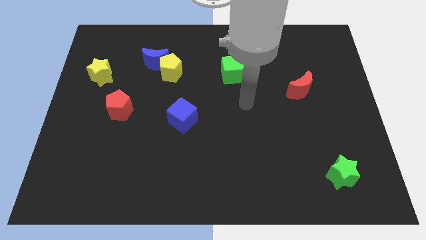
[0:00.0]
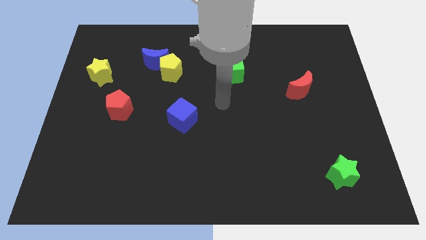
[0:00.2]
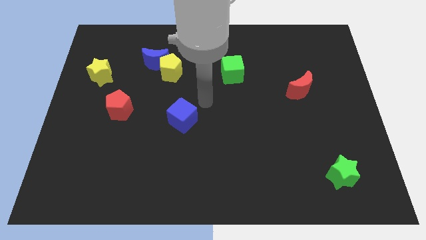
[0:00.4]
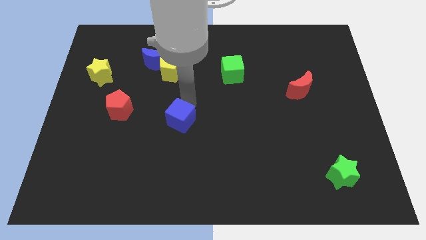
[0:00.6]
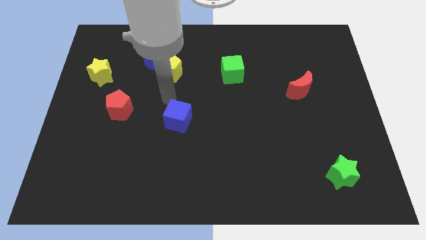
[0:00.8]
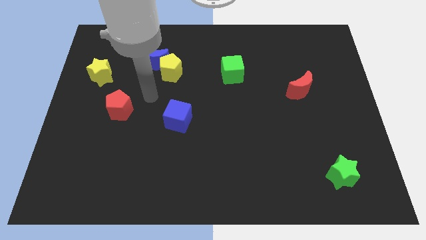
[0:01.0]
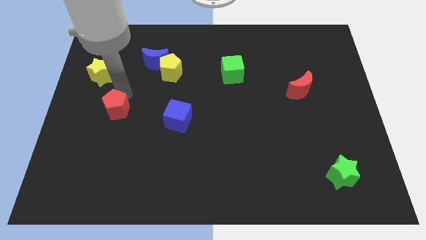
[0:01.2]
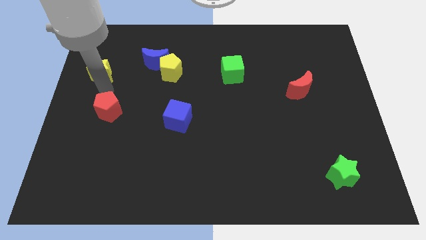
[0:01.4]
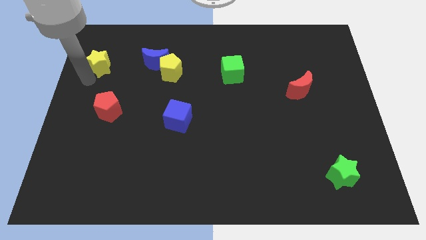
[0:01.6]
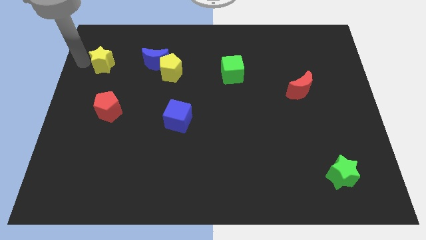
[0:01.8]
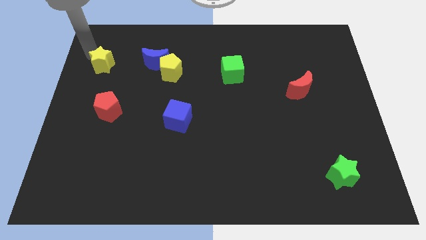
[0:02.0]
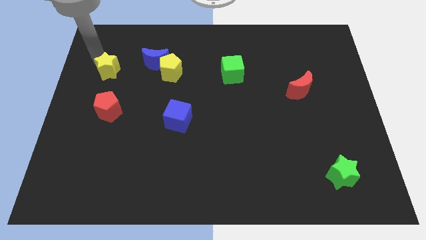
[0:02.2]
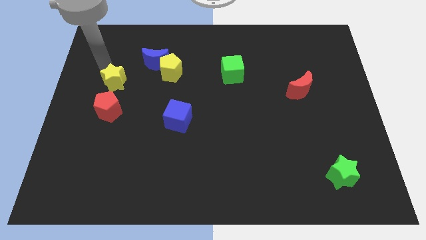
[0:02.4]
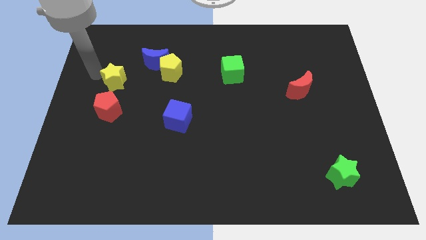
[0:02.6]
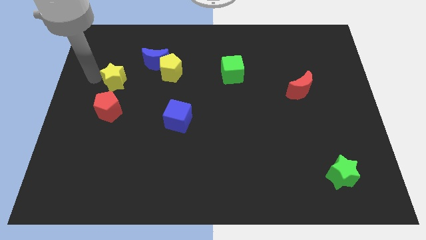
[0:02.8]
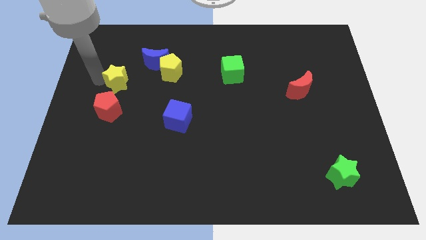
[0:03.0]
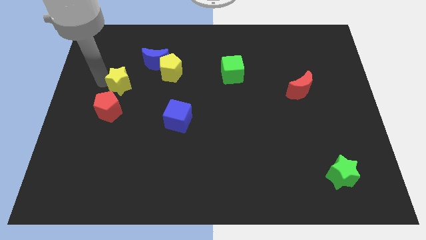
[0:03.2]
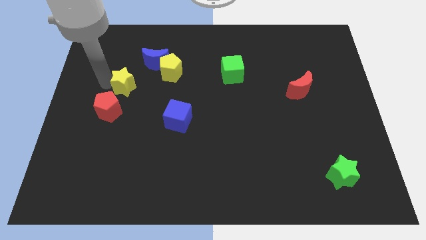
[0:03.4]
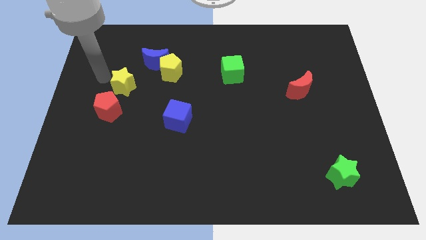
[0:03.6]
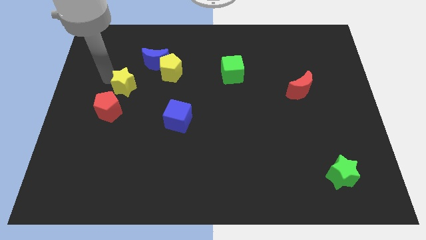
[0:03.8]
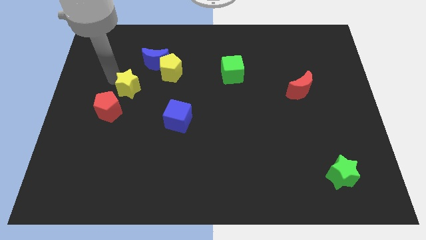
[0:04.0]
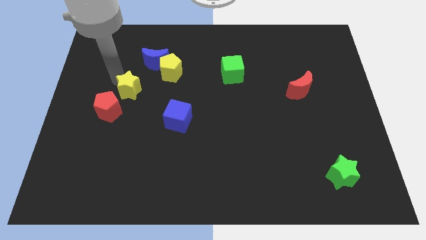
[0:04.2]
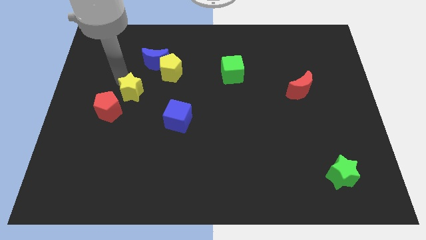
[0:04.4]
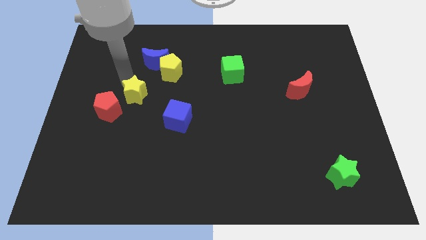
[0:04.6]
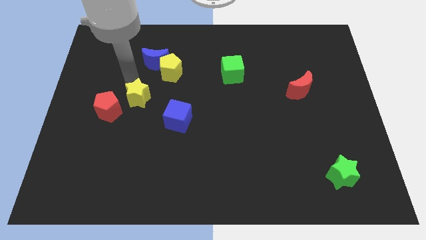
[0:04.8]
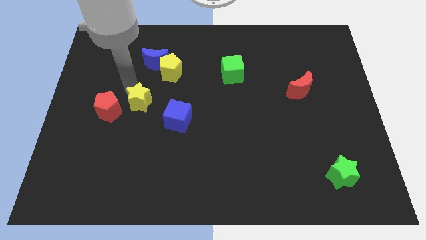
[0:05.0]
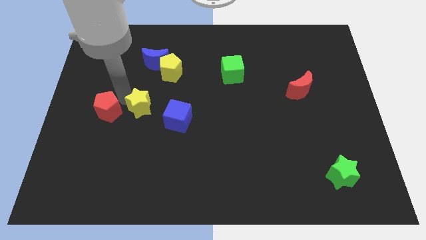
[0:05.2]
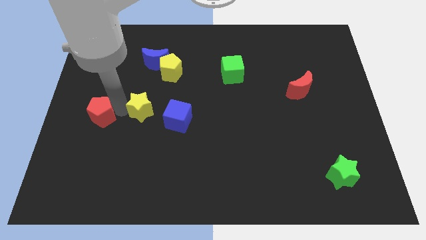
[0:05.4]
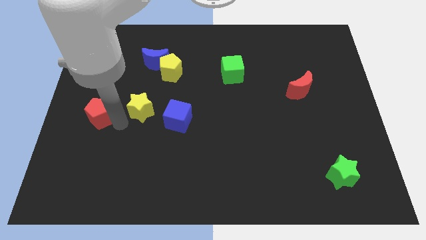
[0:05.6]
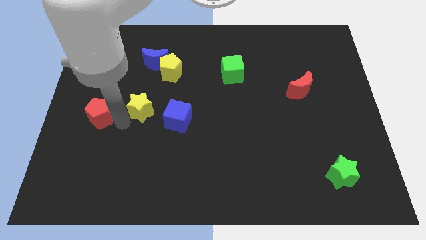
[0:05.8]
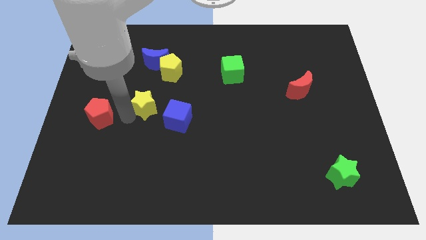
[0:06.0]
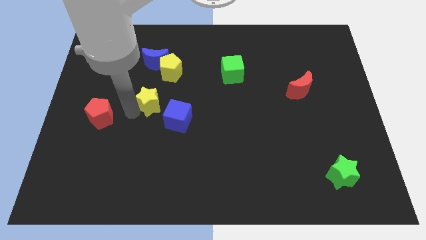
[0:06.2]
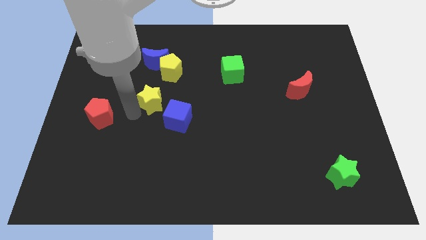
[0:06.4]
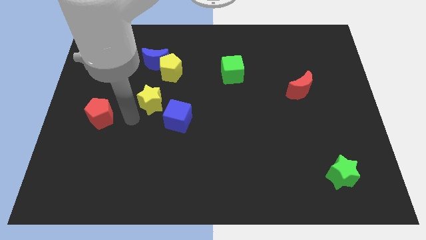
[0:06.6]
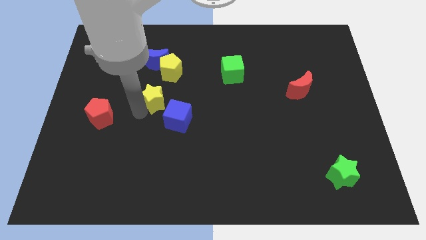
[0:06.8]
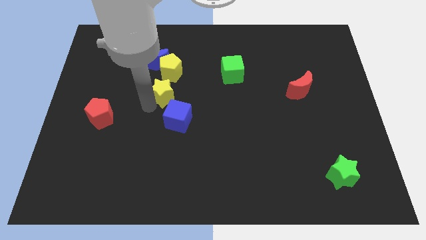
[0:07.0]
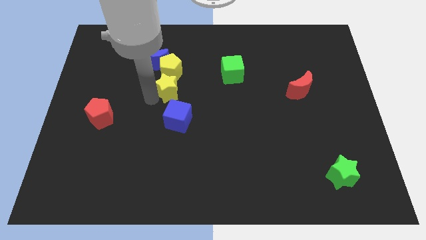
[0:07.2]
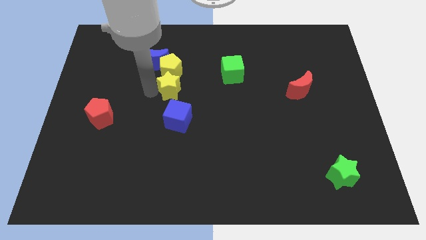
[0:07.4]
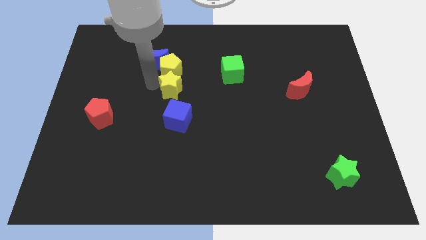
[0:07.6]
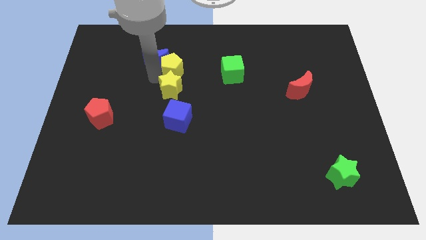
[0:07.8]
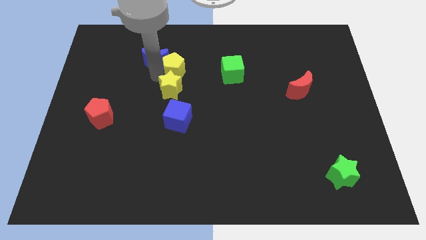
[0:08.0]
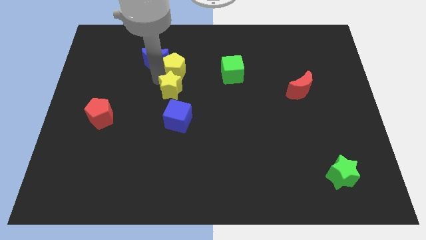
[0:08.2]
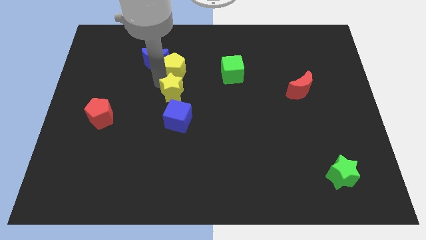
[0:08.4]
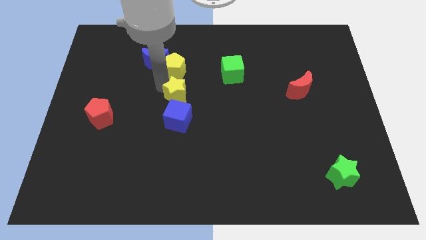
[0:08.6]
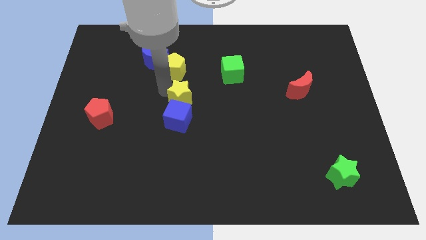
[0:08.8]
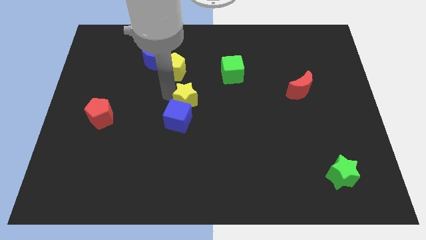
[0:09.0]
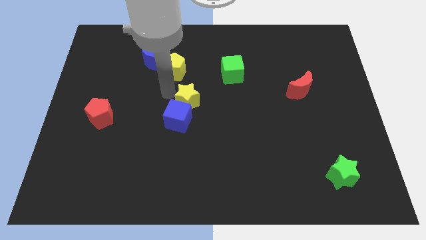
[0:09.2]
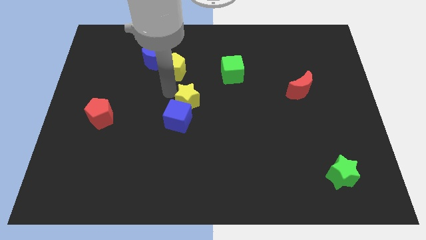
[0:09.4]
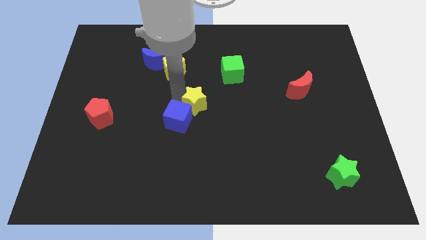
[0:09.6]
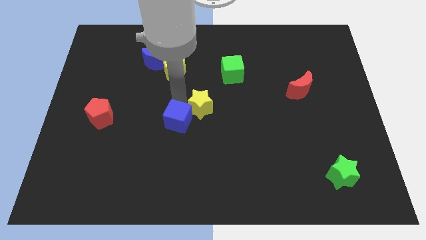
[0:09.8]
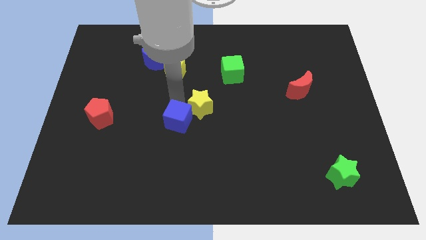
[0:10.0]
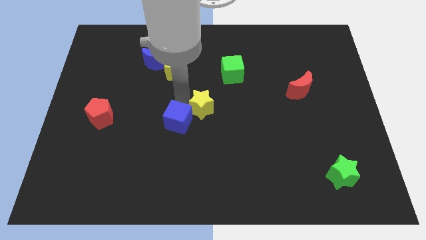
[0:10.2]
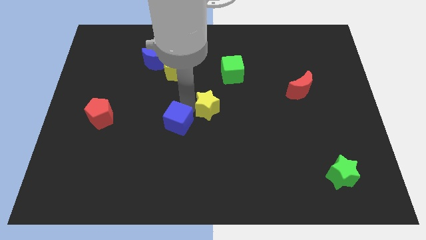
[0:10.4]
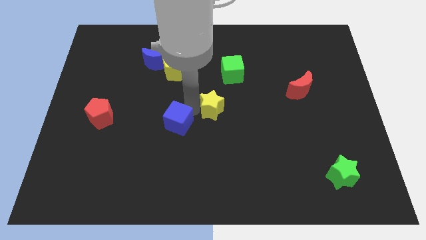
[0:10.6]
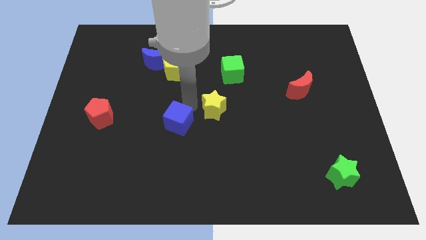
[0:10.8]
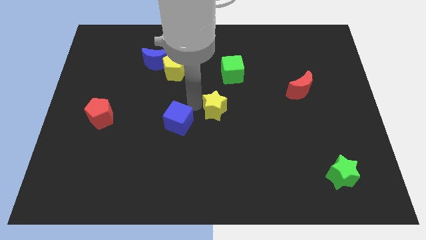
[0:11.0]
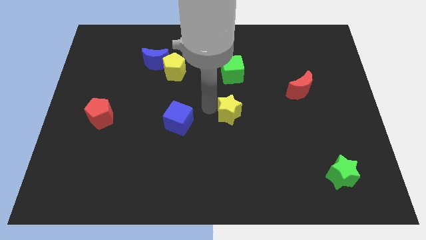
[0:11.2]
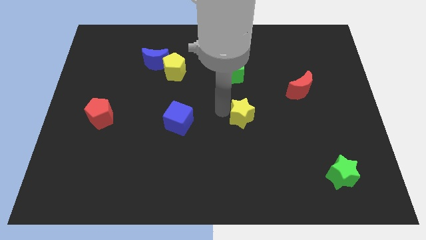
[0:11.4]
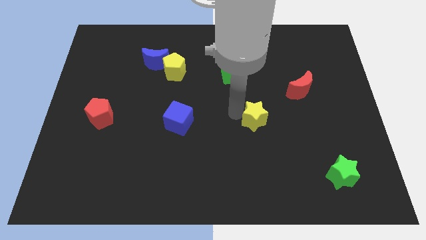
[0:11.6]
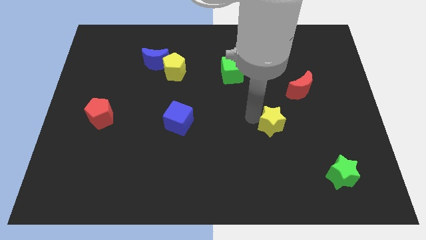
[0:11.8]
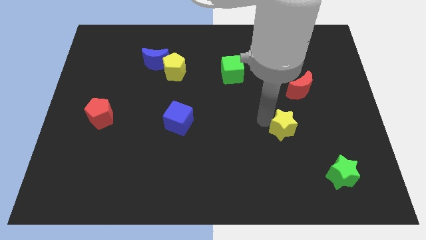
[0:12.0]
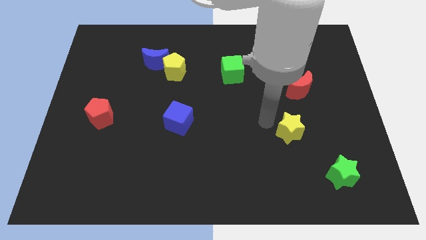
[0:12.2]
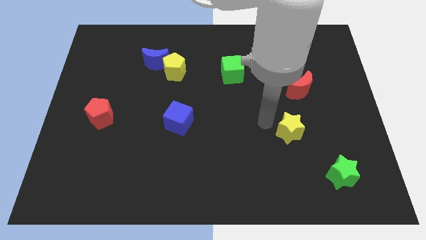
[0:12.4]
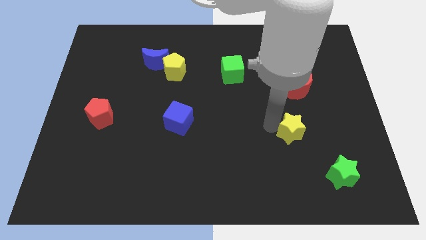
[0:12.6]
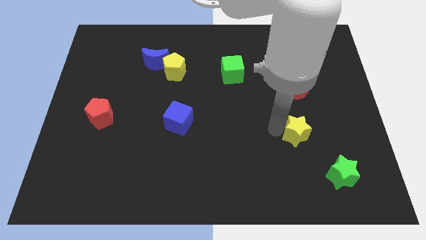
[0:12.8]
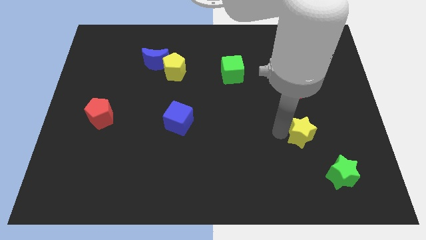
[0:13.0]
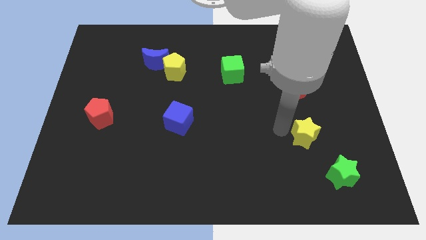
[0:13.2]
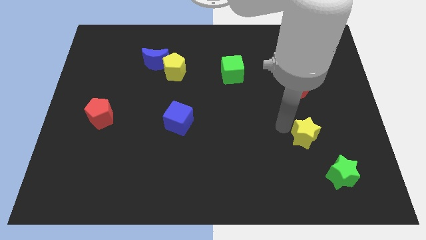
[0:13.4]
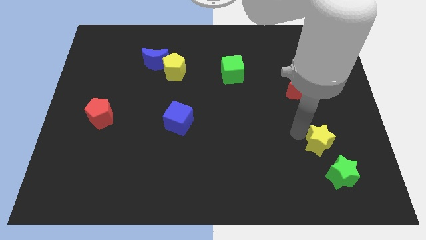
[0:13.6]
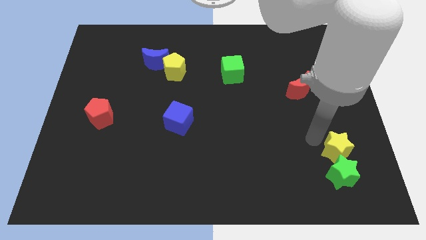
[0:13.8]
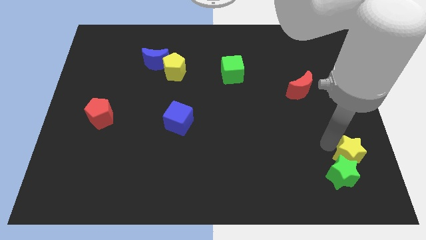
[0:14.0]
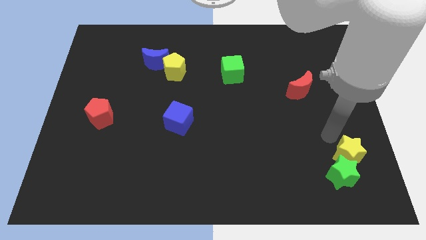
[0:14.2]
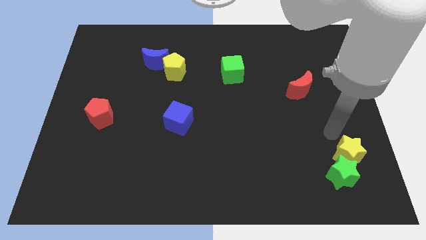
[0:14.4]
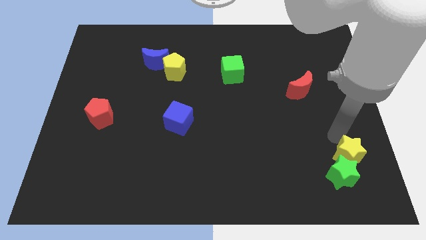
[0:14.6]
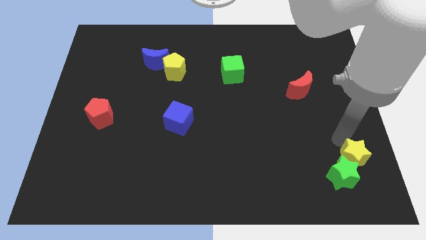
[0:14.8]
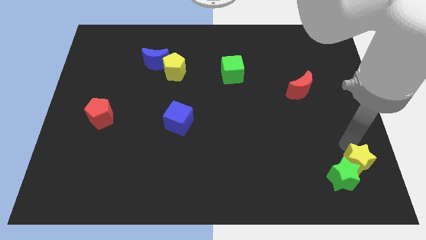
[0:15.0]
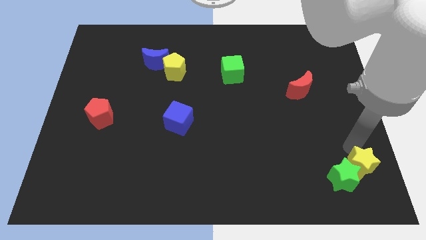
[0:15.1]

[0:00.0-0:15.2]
move the yellow star to the bottom right of the board
